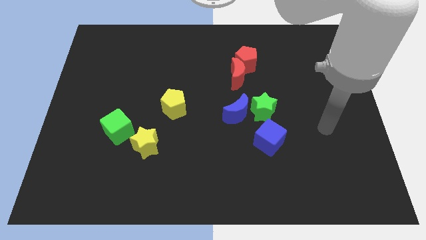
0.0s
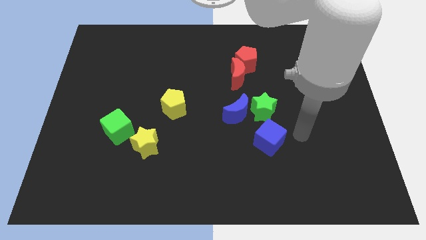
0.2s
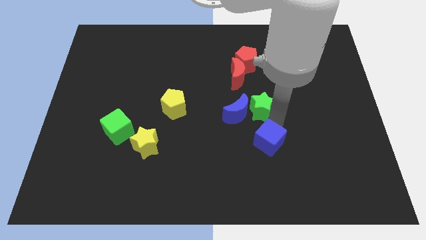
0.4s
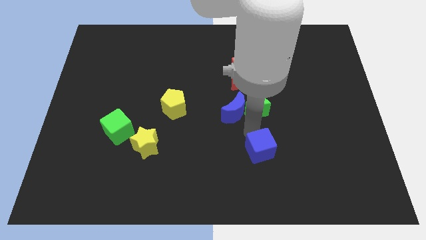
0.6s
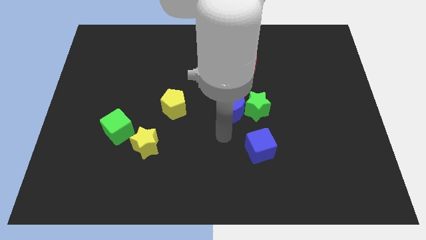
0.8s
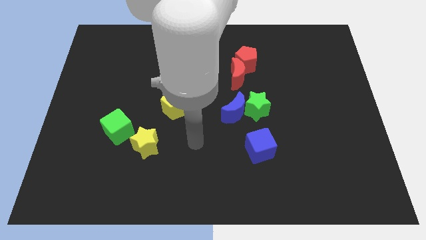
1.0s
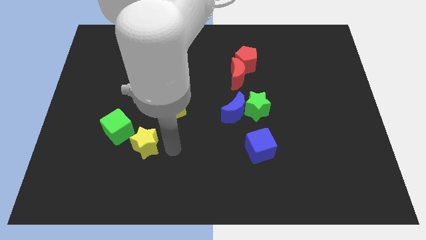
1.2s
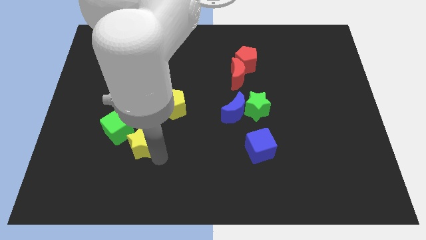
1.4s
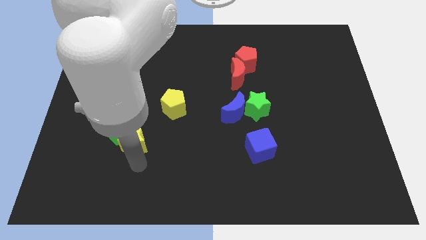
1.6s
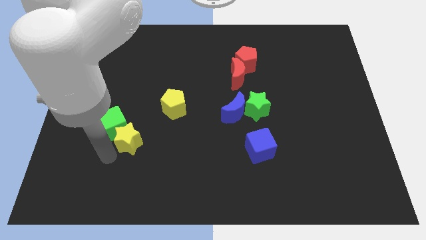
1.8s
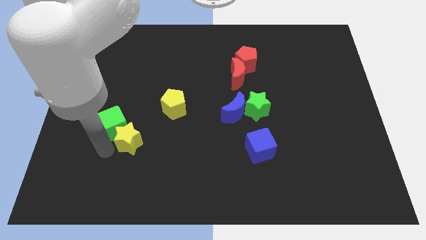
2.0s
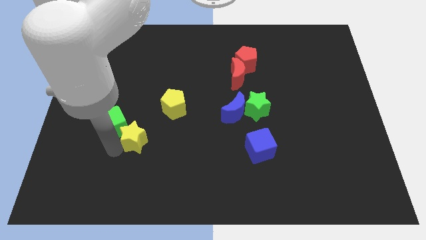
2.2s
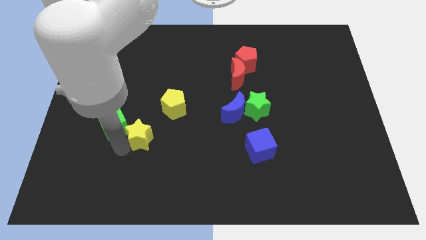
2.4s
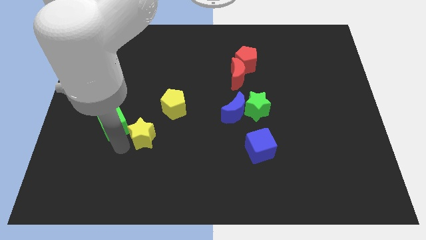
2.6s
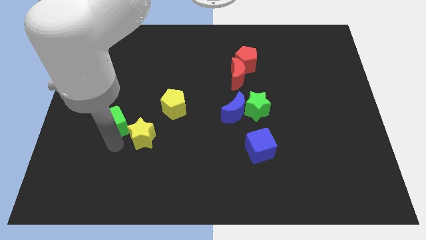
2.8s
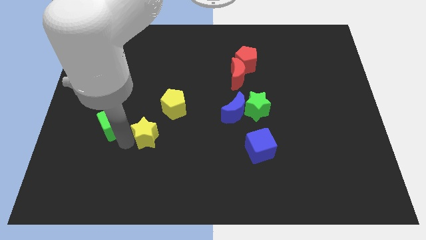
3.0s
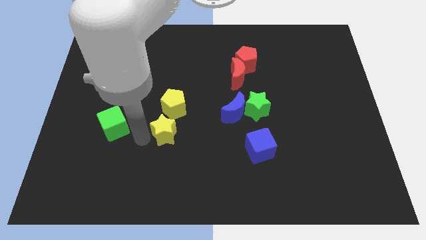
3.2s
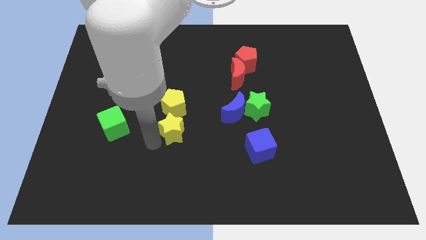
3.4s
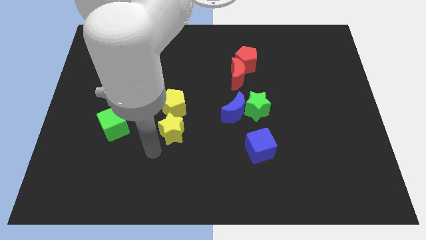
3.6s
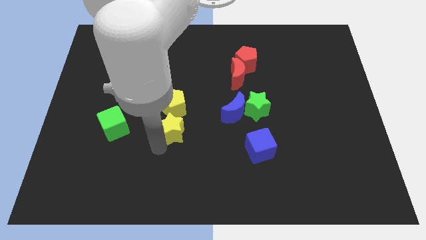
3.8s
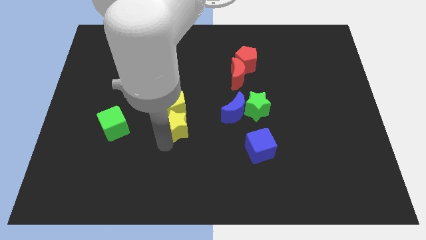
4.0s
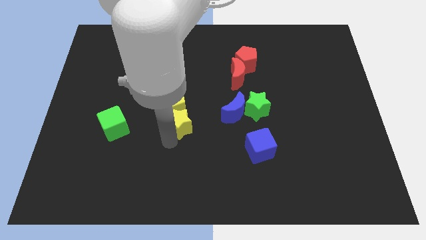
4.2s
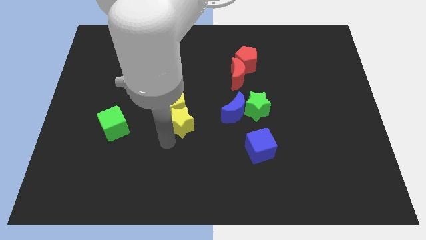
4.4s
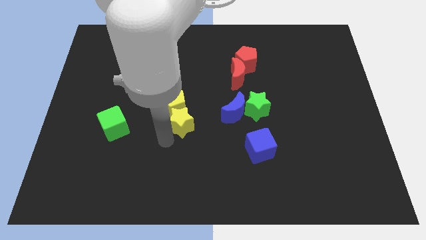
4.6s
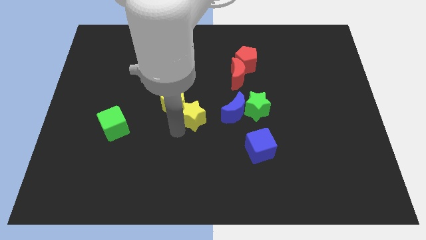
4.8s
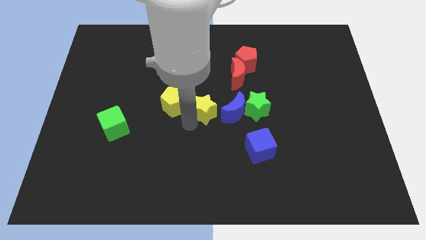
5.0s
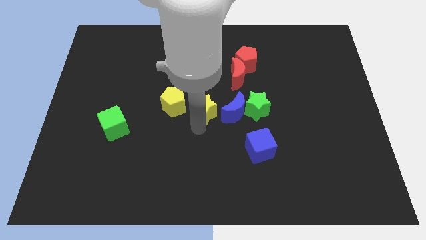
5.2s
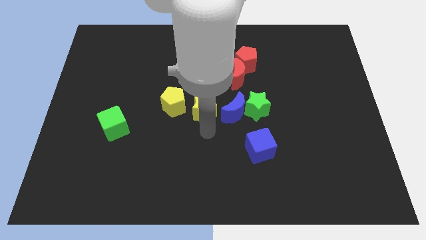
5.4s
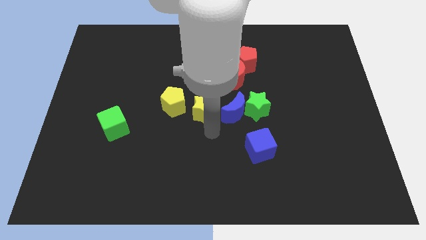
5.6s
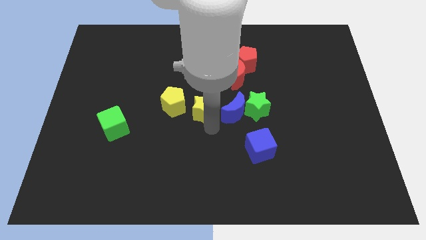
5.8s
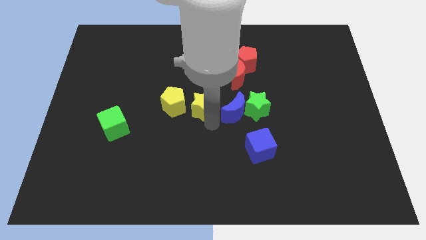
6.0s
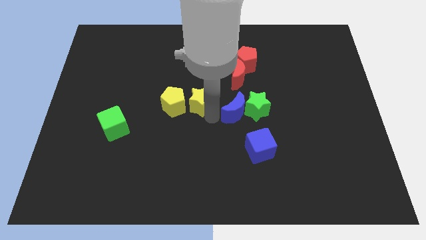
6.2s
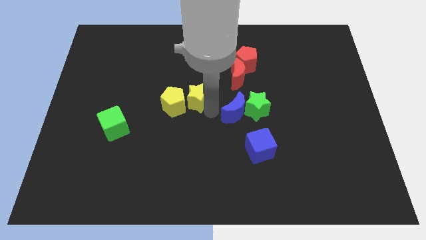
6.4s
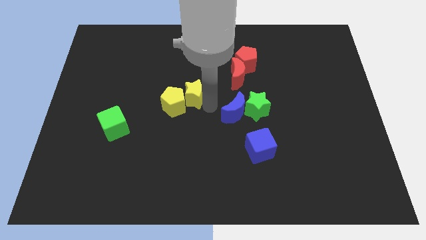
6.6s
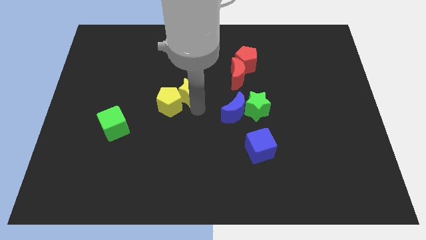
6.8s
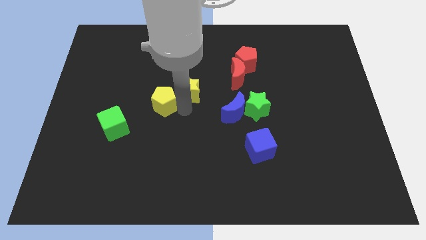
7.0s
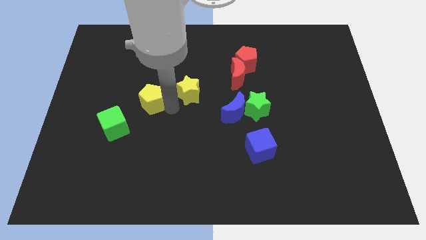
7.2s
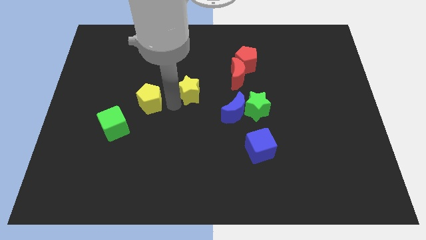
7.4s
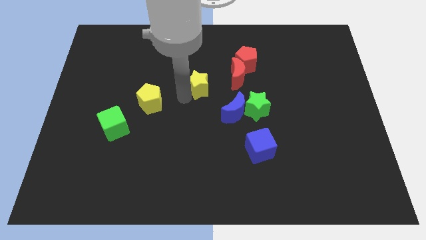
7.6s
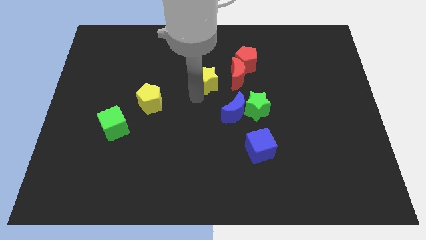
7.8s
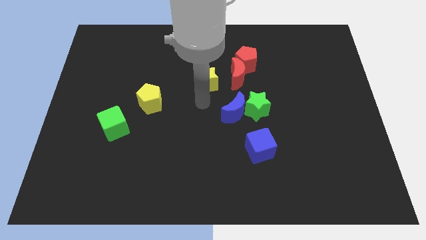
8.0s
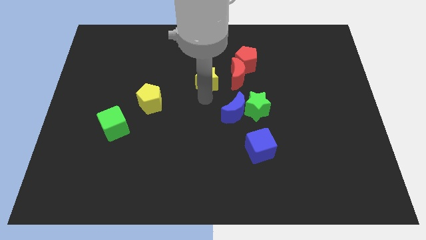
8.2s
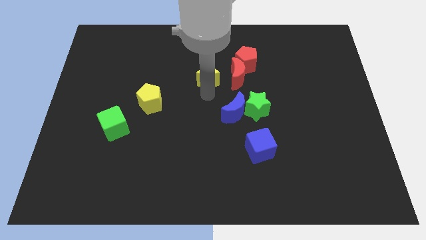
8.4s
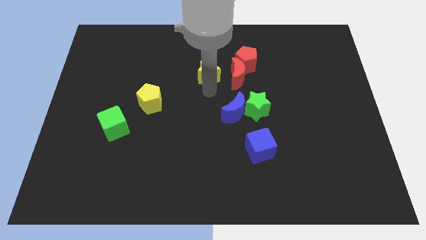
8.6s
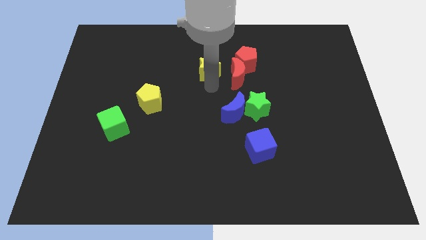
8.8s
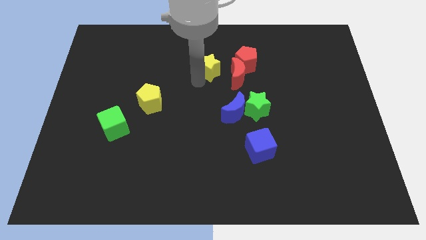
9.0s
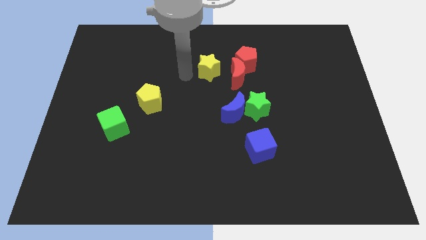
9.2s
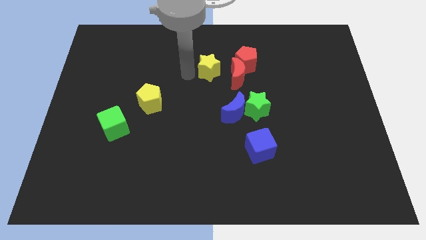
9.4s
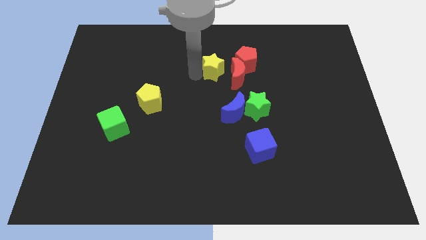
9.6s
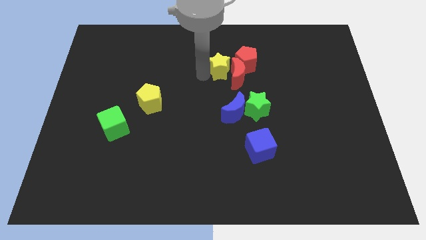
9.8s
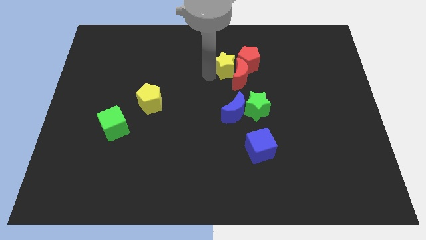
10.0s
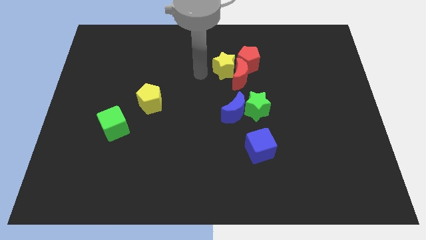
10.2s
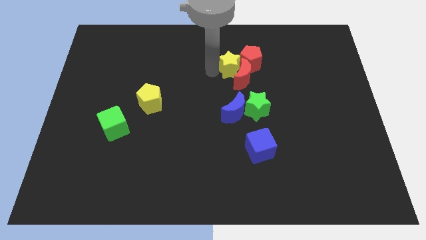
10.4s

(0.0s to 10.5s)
slide the yellow star to the red pentagon

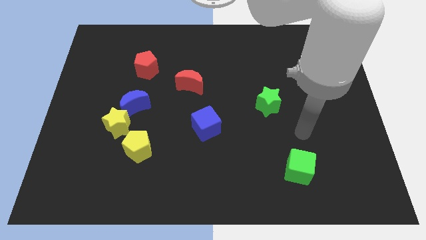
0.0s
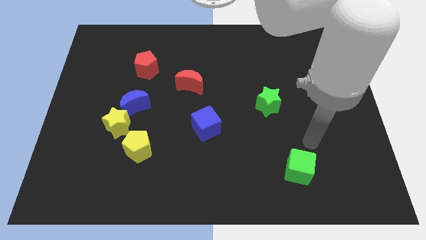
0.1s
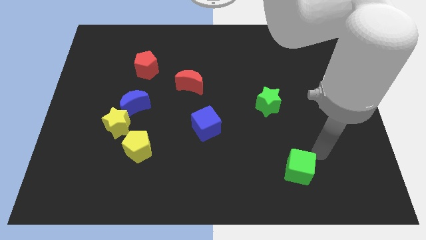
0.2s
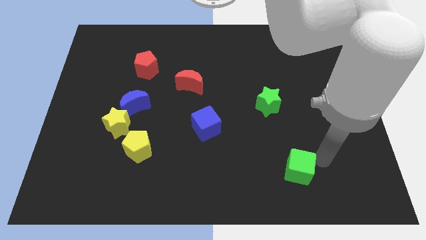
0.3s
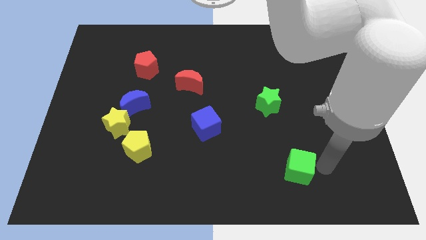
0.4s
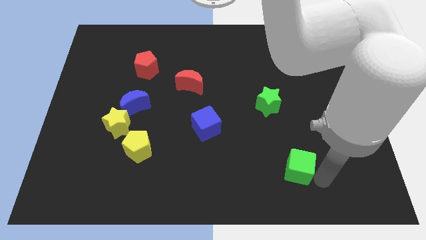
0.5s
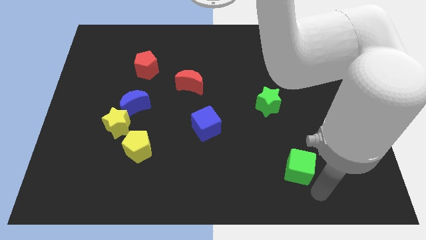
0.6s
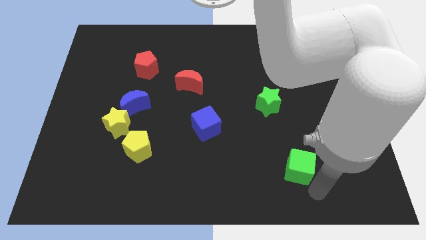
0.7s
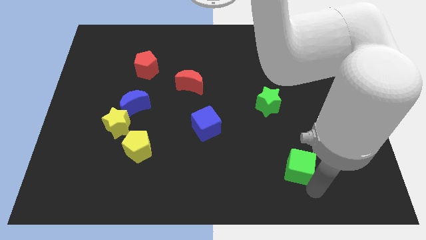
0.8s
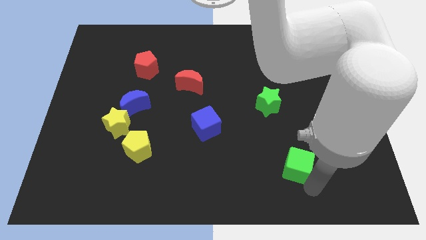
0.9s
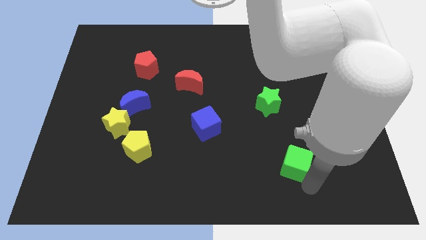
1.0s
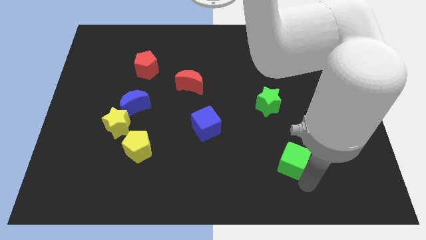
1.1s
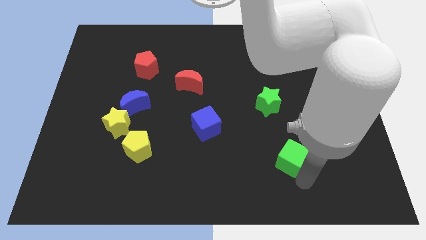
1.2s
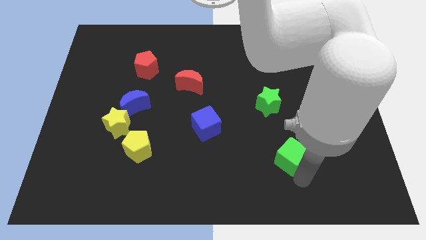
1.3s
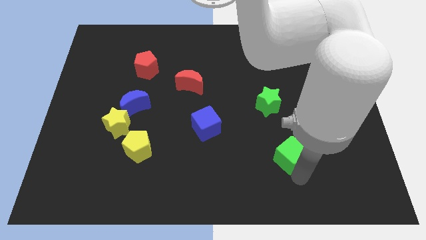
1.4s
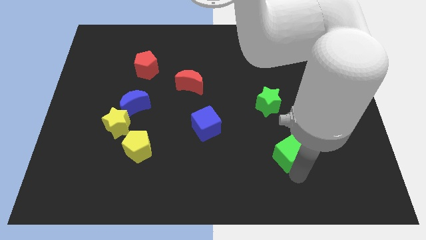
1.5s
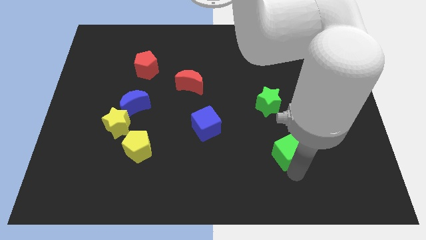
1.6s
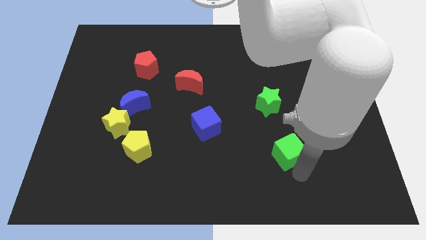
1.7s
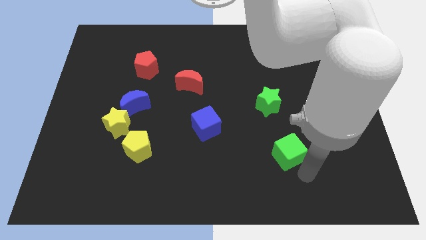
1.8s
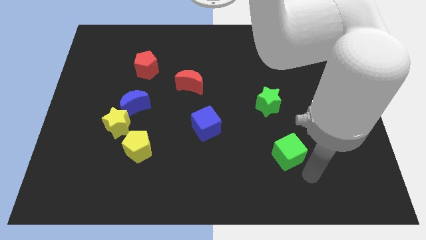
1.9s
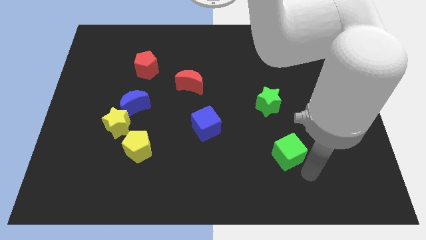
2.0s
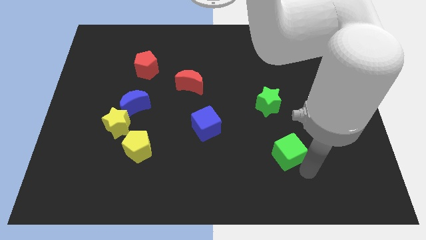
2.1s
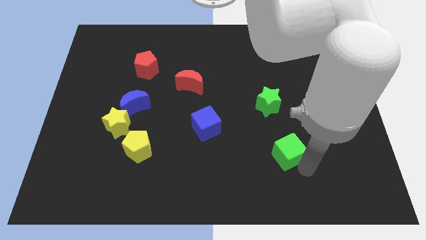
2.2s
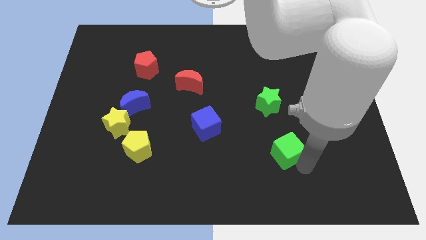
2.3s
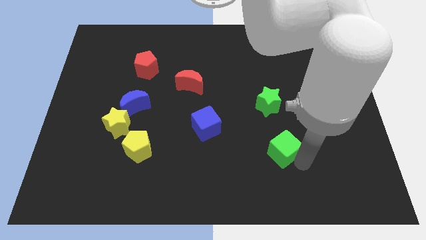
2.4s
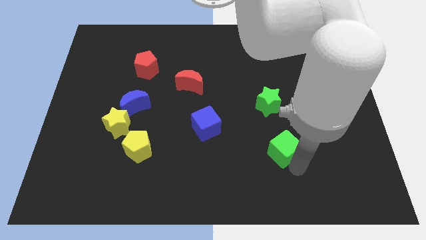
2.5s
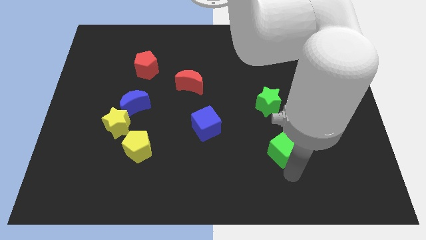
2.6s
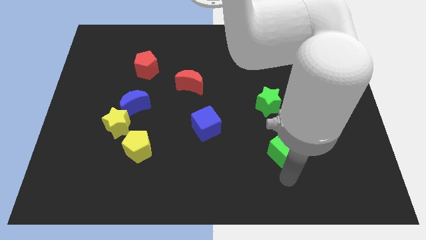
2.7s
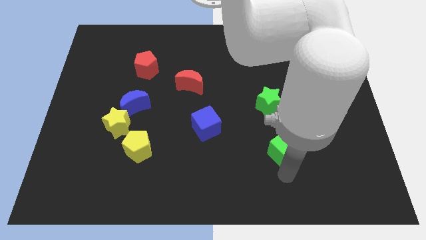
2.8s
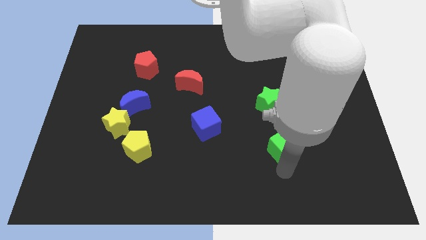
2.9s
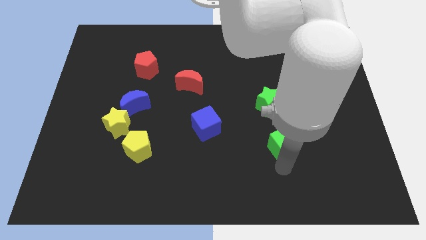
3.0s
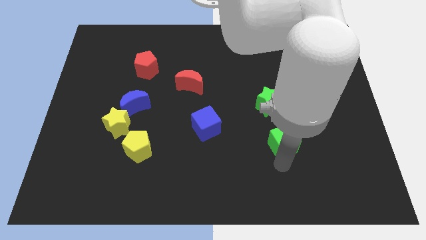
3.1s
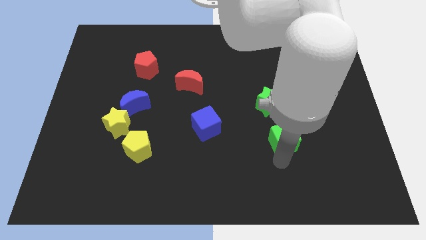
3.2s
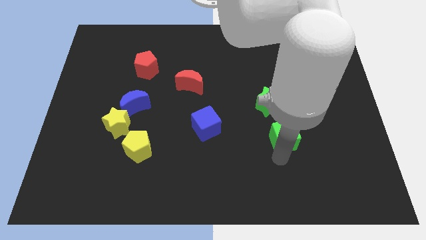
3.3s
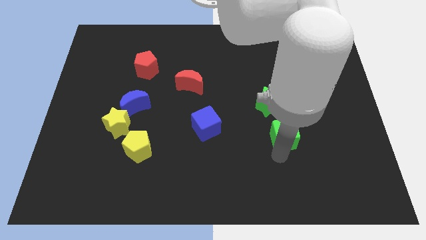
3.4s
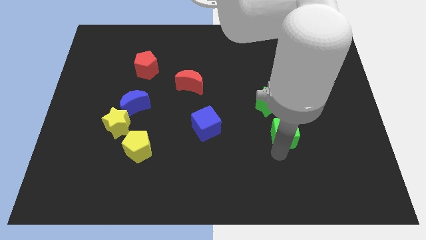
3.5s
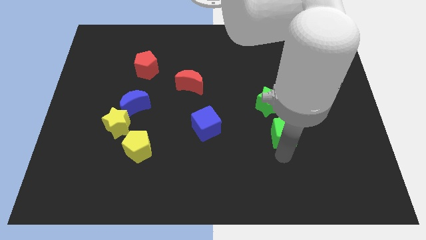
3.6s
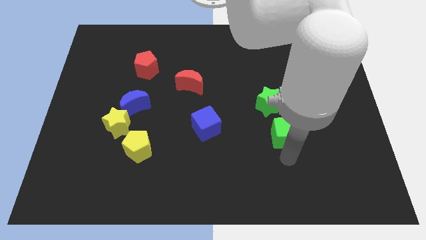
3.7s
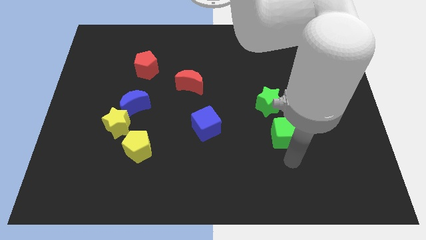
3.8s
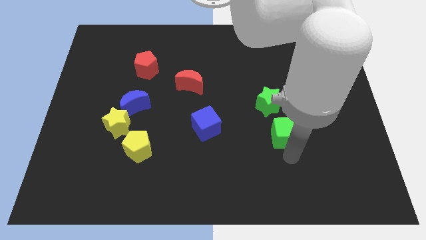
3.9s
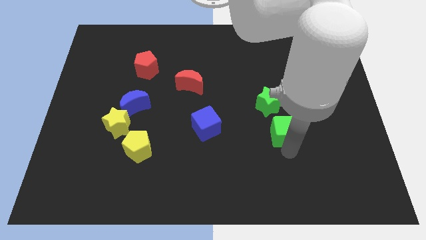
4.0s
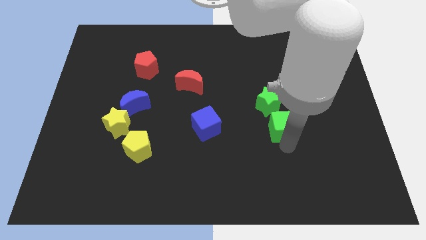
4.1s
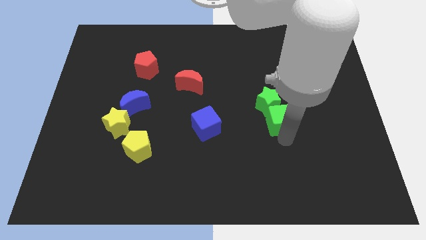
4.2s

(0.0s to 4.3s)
put the green cube next to the green star
